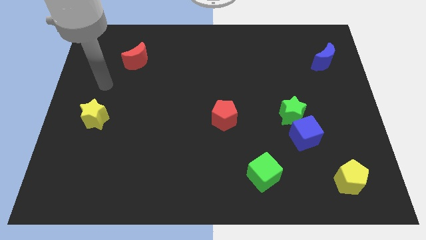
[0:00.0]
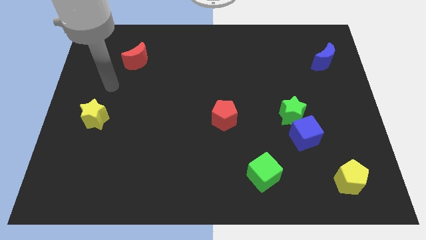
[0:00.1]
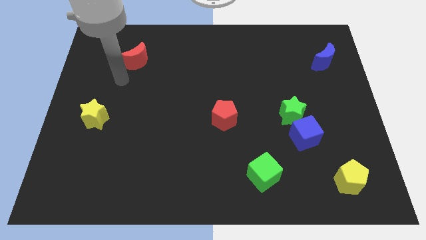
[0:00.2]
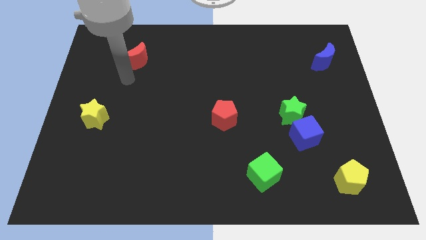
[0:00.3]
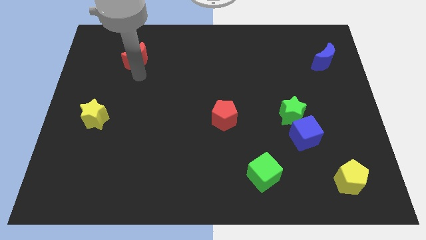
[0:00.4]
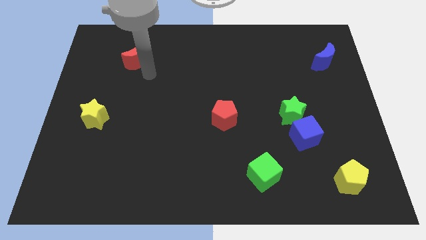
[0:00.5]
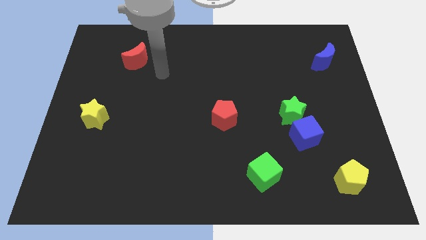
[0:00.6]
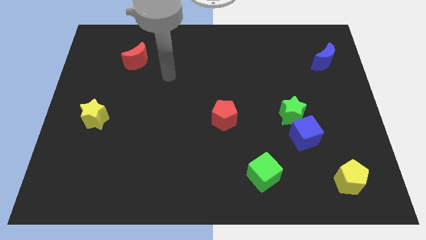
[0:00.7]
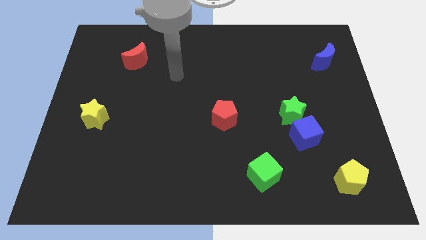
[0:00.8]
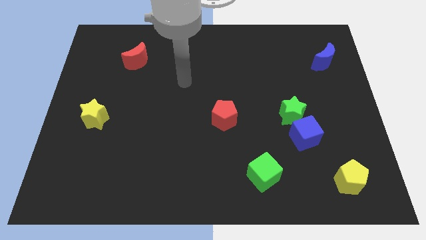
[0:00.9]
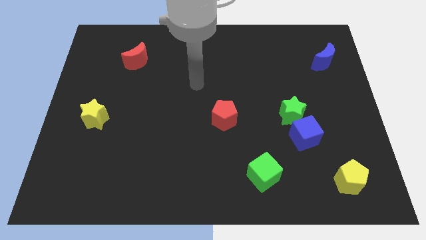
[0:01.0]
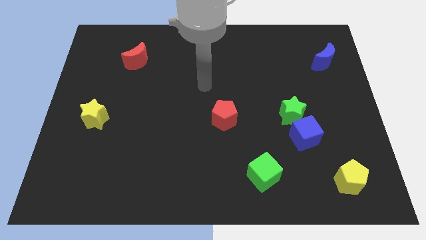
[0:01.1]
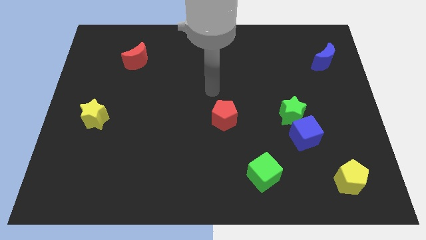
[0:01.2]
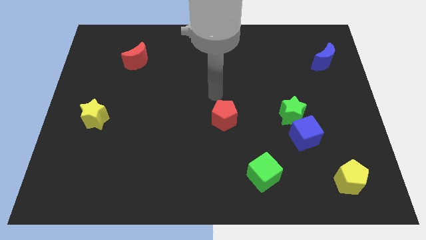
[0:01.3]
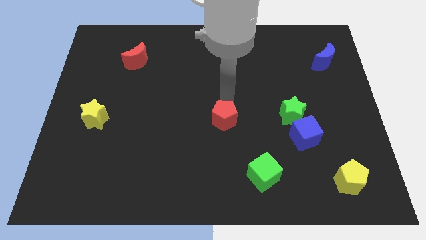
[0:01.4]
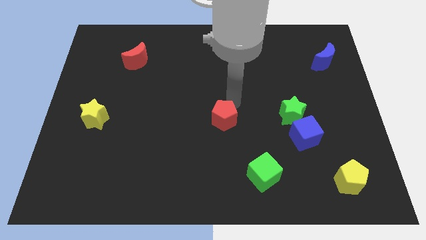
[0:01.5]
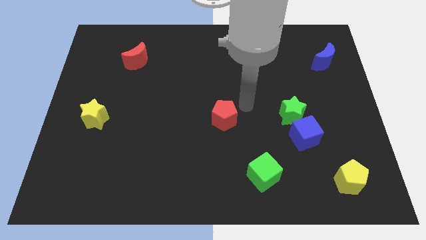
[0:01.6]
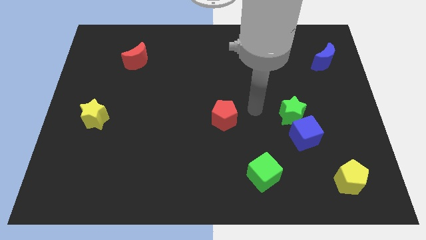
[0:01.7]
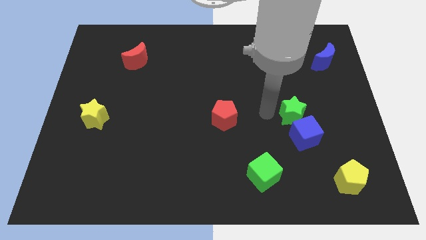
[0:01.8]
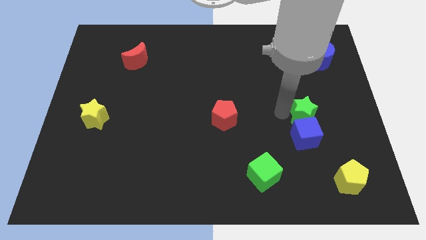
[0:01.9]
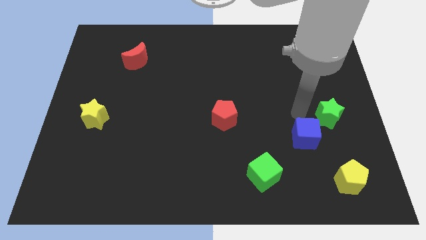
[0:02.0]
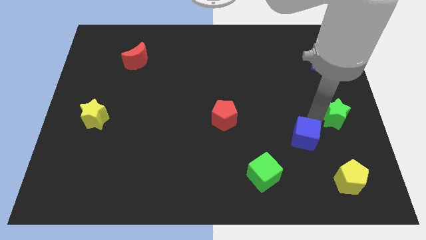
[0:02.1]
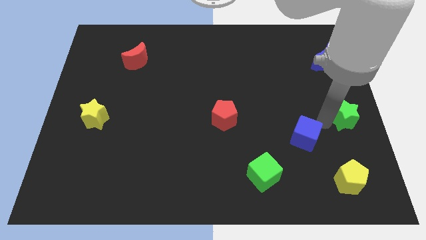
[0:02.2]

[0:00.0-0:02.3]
move the blue cube away from the green star

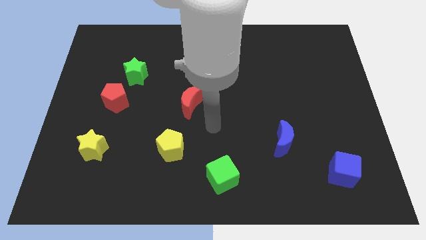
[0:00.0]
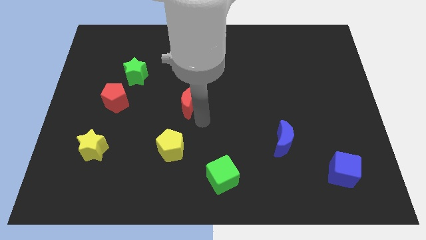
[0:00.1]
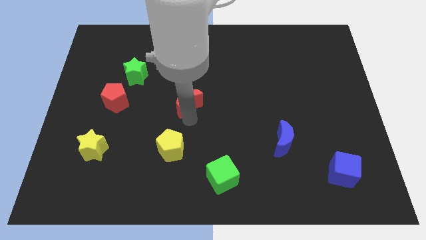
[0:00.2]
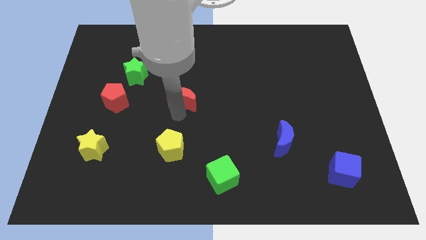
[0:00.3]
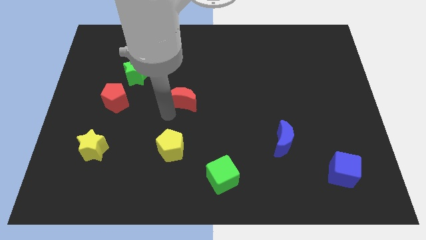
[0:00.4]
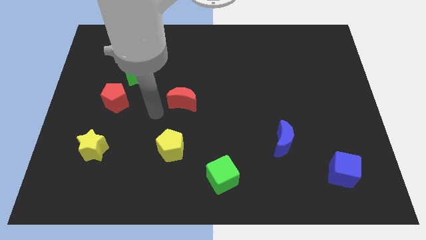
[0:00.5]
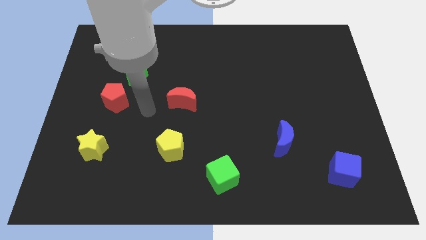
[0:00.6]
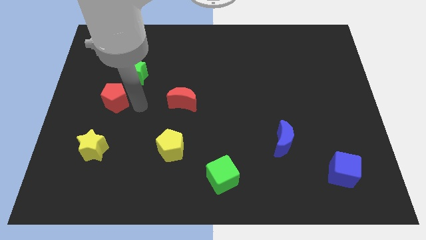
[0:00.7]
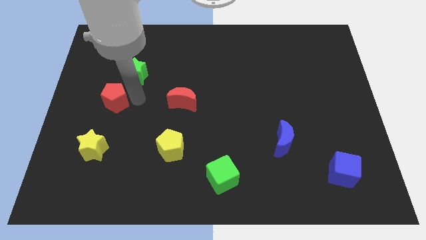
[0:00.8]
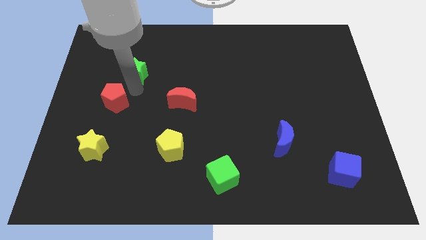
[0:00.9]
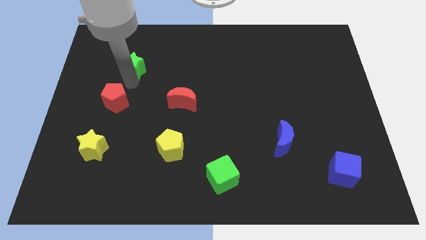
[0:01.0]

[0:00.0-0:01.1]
move the red pentagon away from the green star

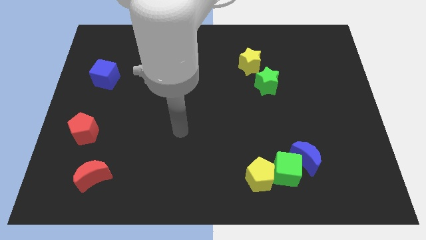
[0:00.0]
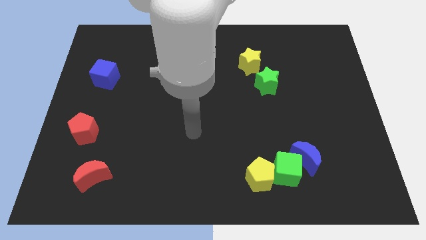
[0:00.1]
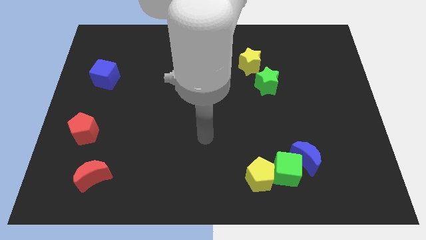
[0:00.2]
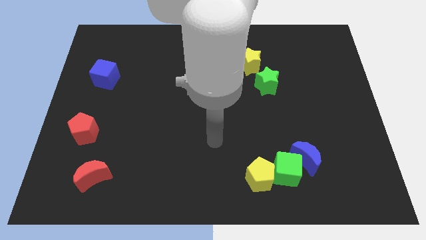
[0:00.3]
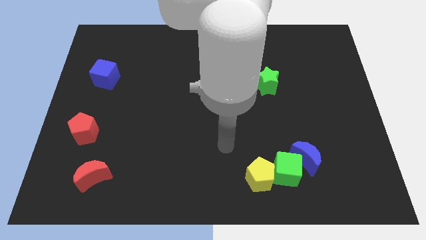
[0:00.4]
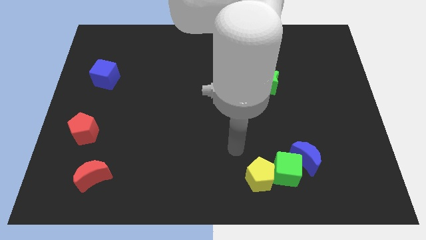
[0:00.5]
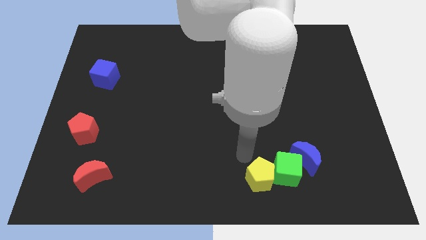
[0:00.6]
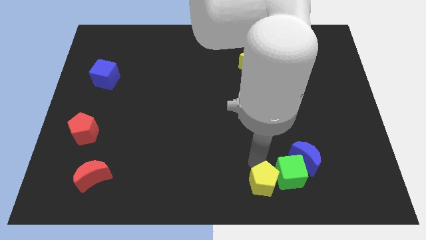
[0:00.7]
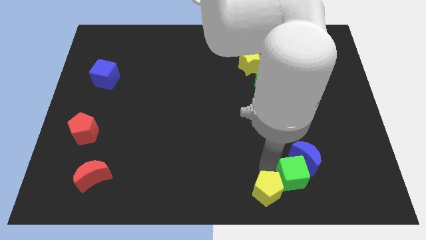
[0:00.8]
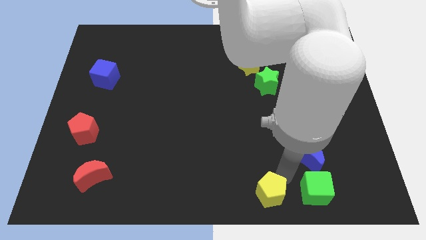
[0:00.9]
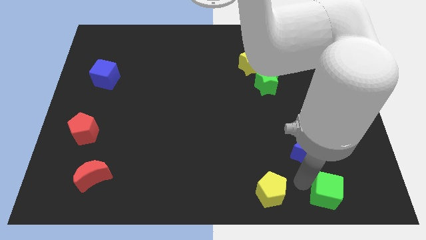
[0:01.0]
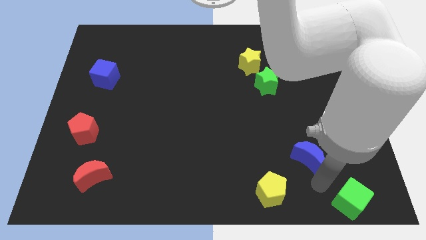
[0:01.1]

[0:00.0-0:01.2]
move the blue moon away from the green cube

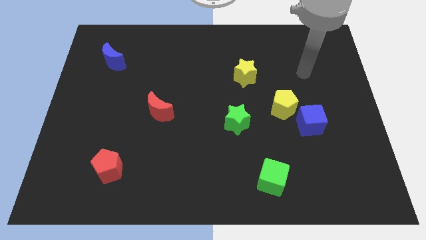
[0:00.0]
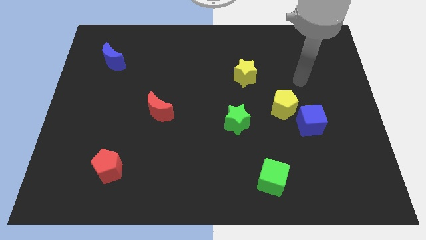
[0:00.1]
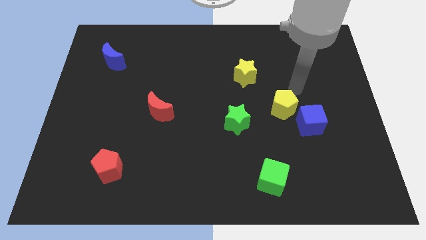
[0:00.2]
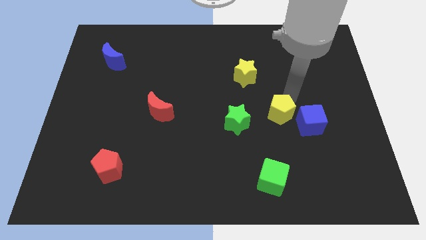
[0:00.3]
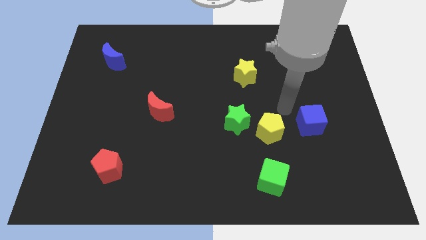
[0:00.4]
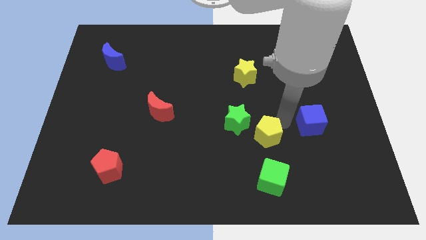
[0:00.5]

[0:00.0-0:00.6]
separate the blue cube from the yellow pentagon

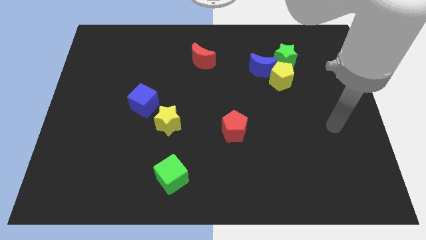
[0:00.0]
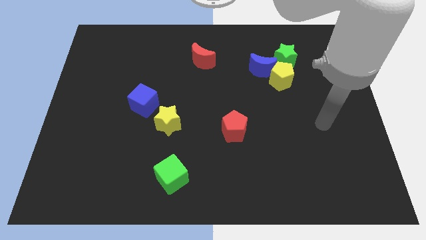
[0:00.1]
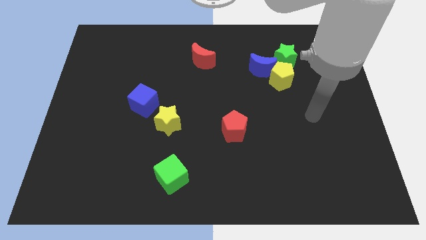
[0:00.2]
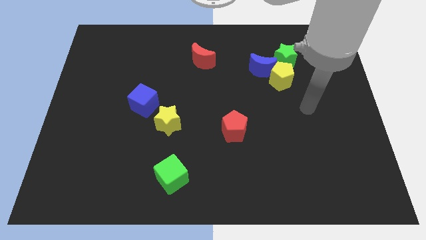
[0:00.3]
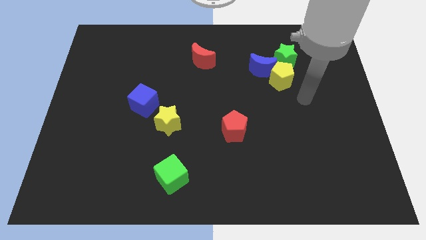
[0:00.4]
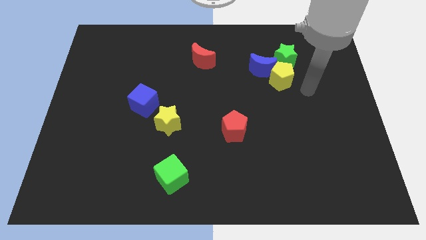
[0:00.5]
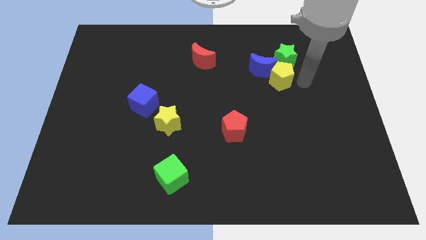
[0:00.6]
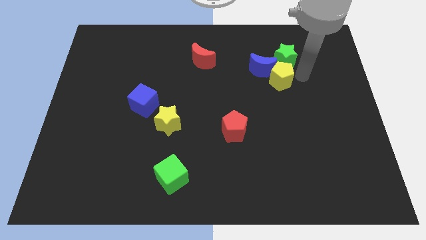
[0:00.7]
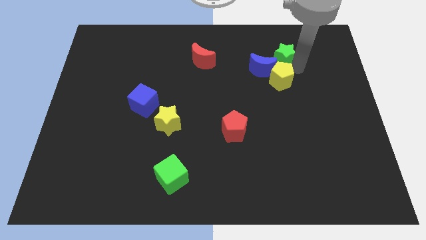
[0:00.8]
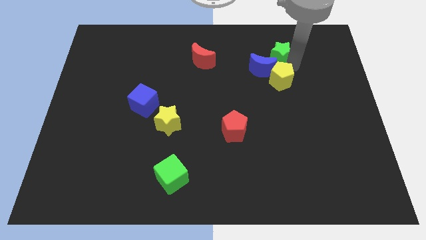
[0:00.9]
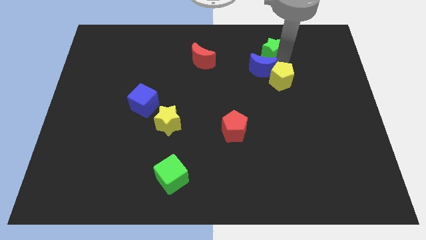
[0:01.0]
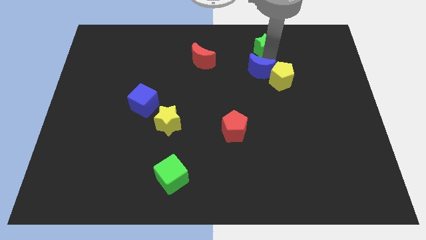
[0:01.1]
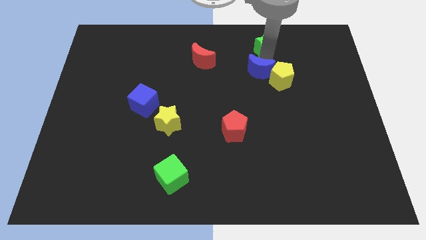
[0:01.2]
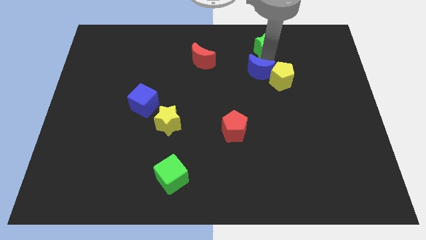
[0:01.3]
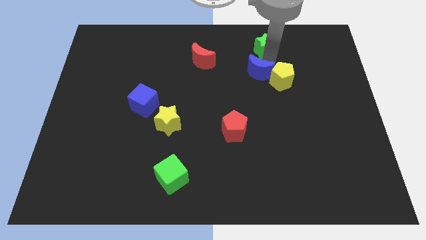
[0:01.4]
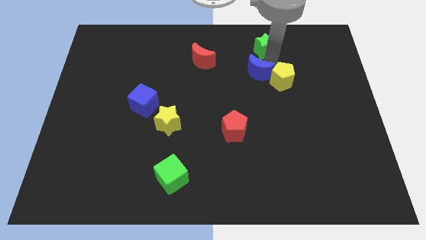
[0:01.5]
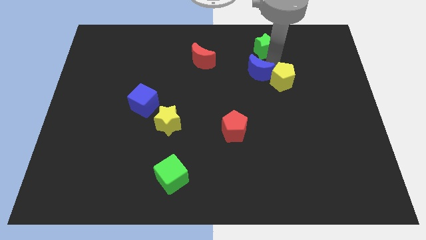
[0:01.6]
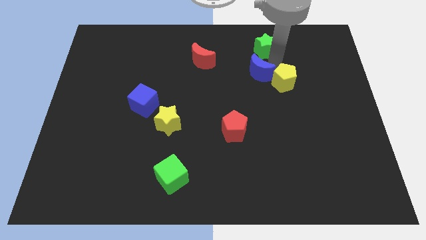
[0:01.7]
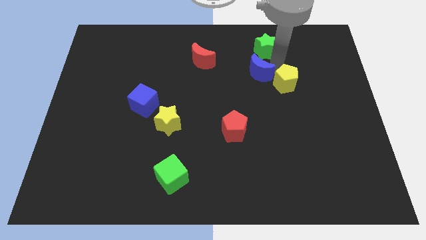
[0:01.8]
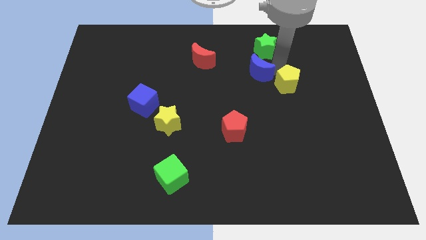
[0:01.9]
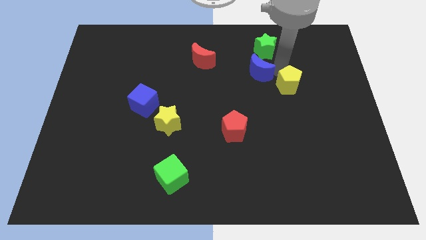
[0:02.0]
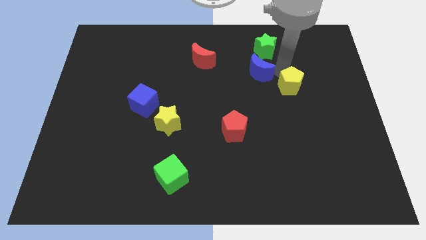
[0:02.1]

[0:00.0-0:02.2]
separate the yellow pentagon from the blue moon and green star

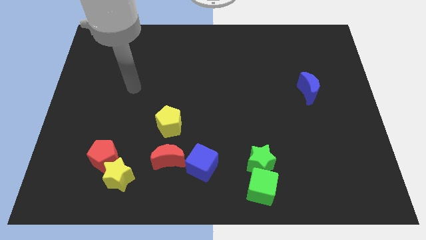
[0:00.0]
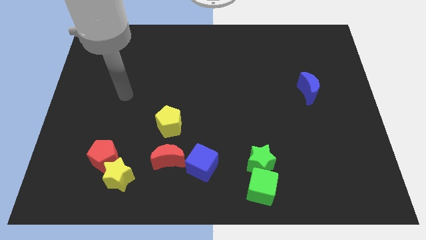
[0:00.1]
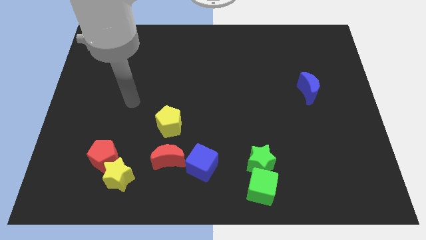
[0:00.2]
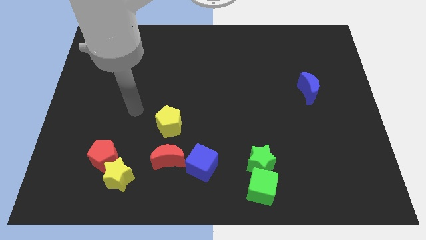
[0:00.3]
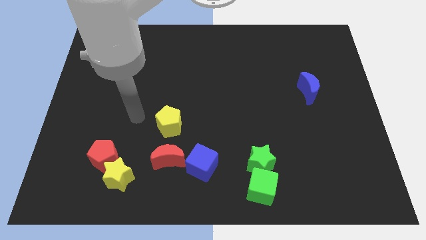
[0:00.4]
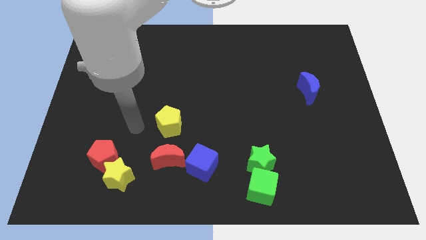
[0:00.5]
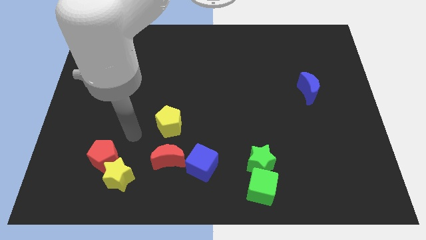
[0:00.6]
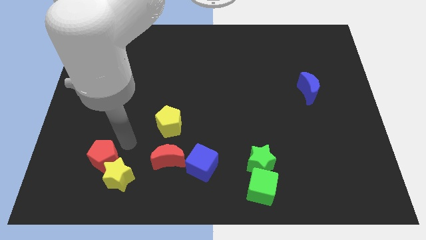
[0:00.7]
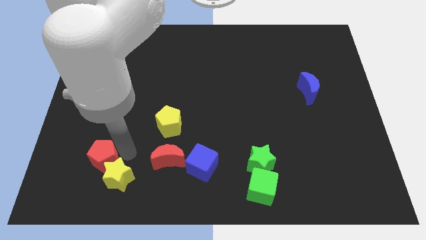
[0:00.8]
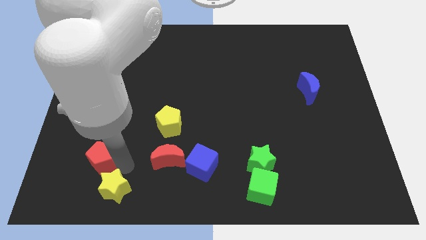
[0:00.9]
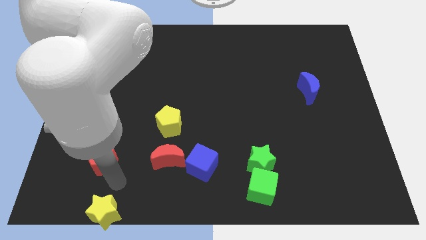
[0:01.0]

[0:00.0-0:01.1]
pull the red pentagon apart from the yellow star

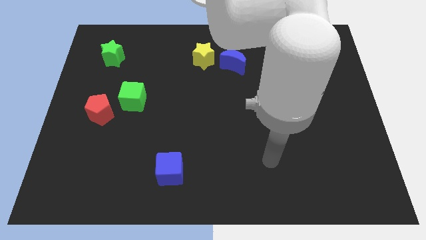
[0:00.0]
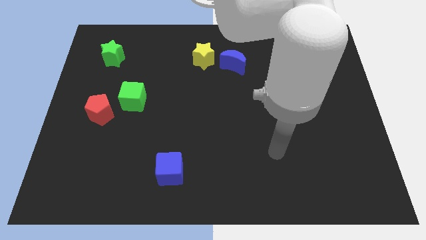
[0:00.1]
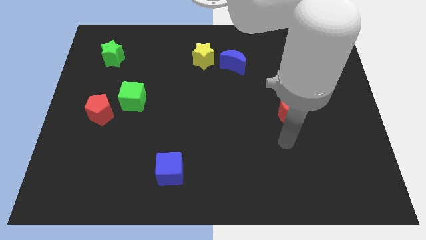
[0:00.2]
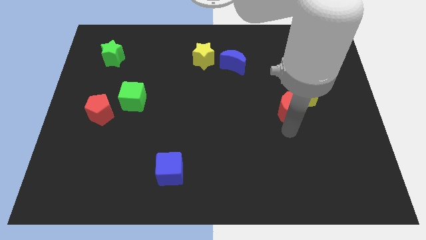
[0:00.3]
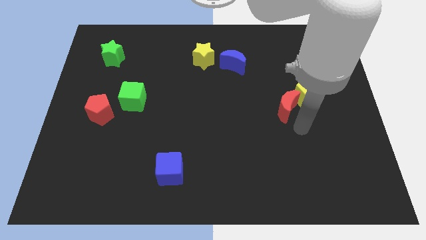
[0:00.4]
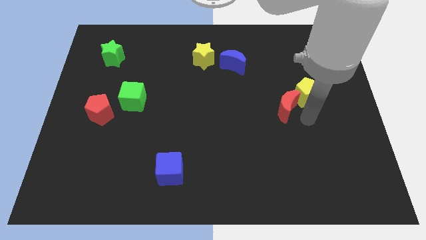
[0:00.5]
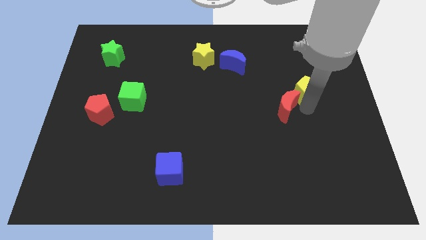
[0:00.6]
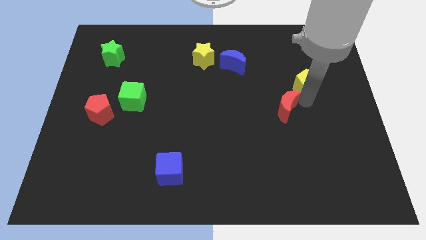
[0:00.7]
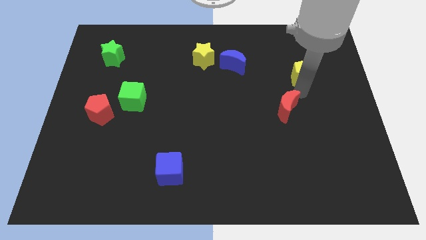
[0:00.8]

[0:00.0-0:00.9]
pull the red moon apart from the yellow pentagon
